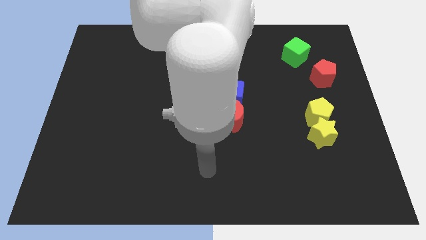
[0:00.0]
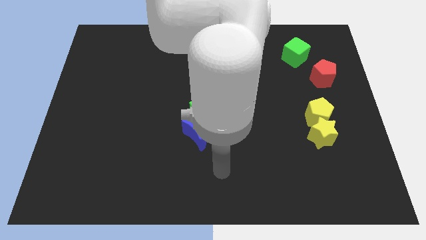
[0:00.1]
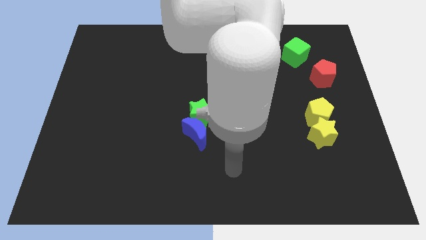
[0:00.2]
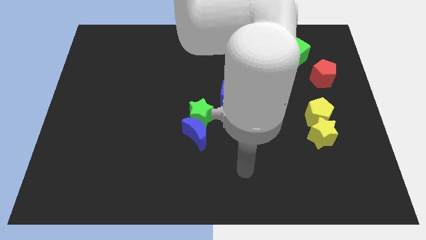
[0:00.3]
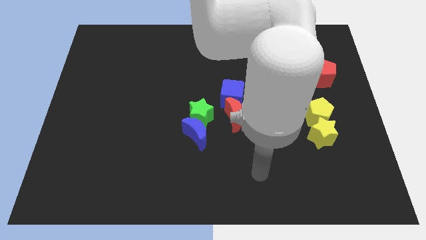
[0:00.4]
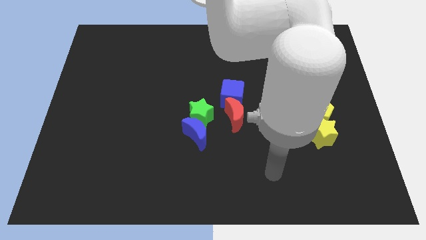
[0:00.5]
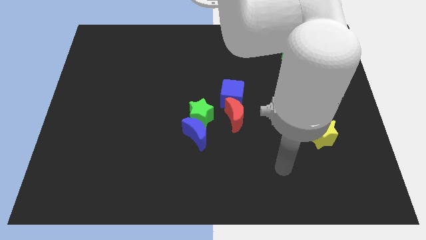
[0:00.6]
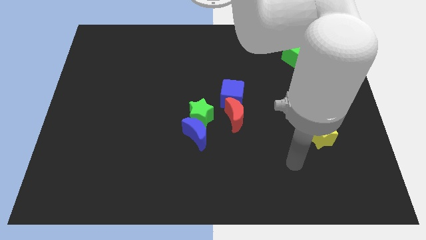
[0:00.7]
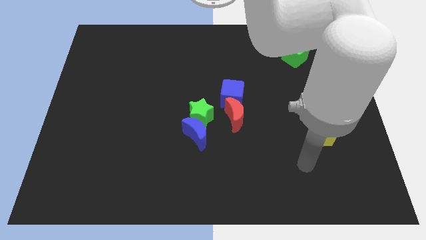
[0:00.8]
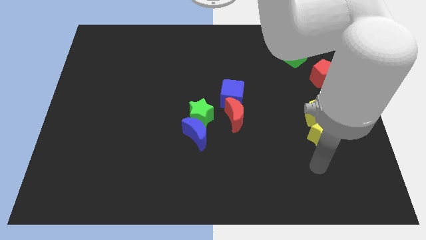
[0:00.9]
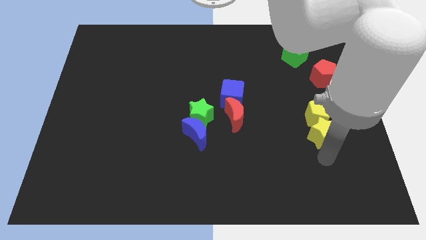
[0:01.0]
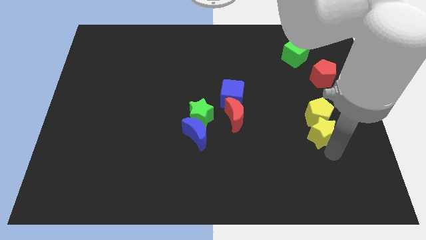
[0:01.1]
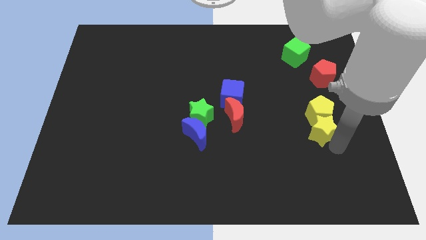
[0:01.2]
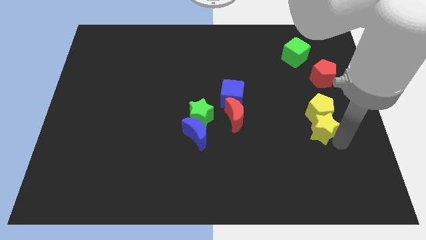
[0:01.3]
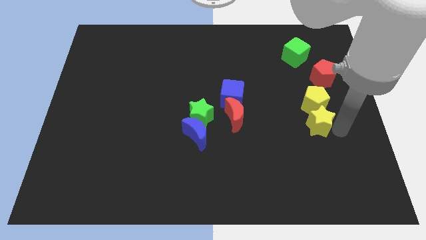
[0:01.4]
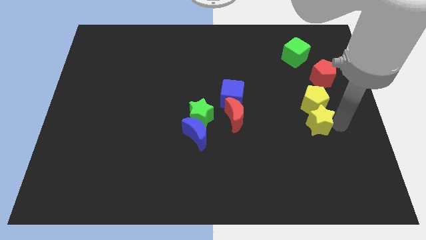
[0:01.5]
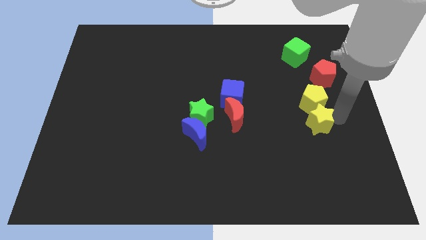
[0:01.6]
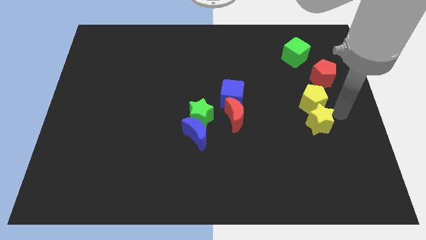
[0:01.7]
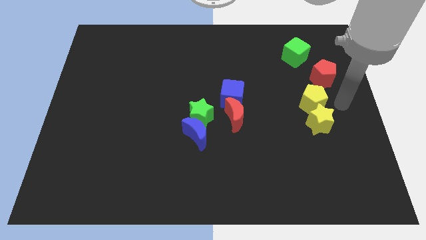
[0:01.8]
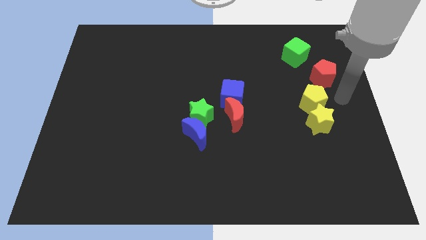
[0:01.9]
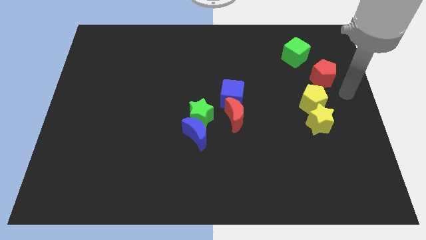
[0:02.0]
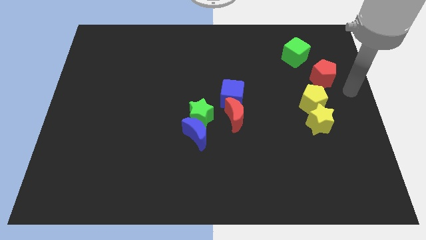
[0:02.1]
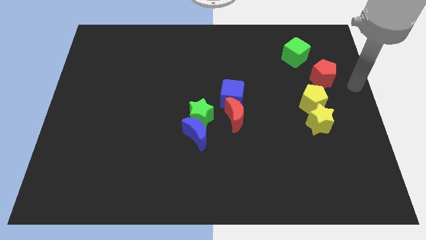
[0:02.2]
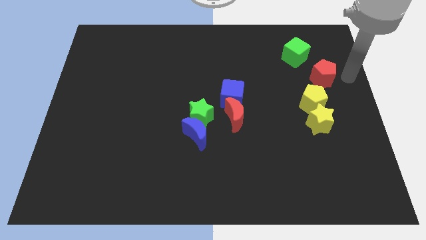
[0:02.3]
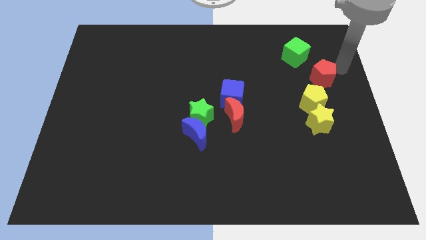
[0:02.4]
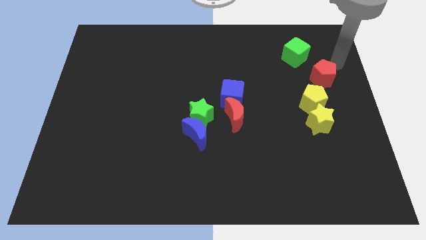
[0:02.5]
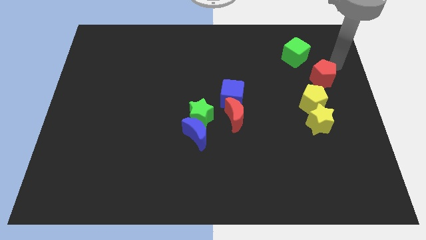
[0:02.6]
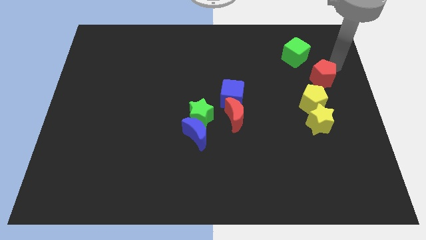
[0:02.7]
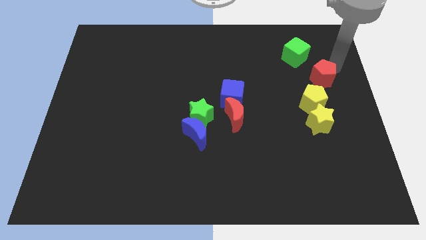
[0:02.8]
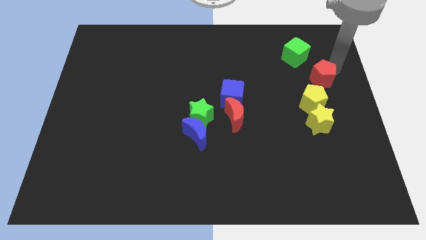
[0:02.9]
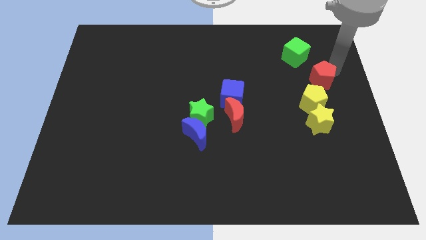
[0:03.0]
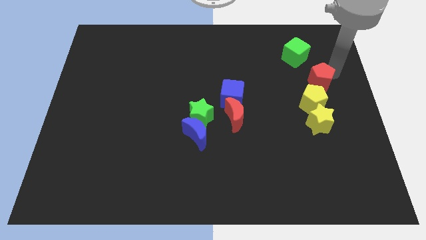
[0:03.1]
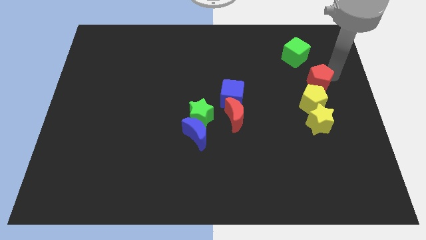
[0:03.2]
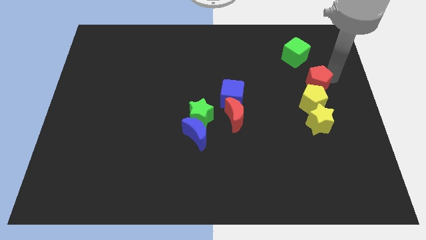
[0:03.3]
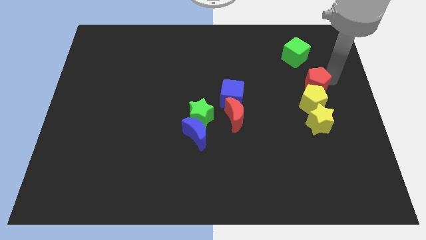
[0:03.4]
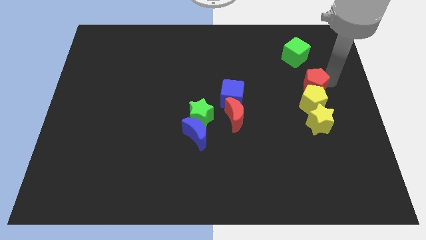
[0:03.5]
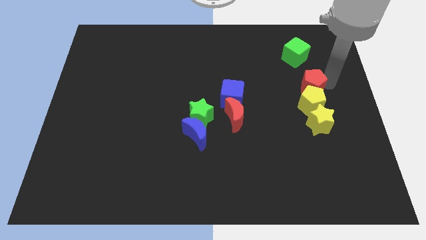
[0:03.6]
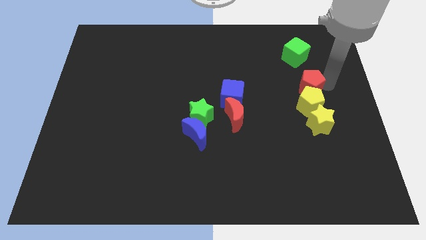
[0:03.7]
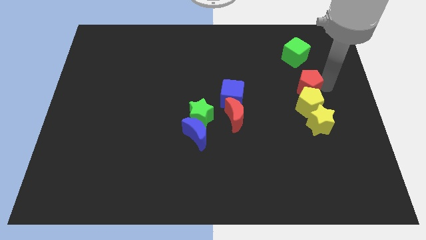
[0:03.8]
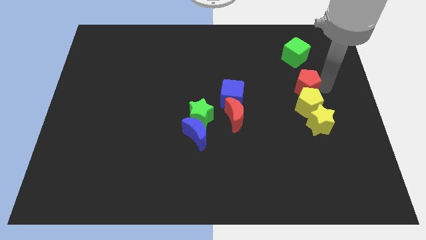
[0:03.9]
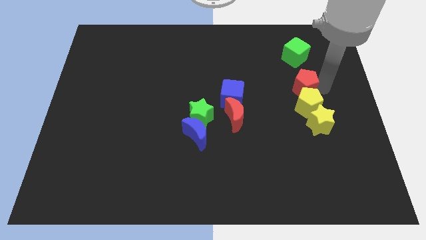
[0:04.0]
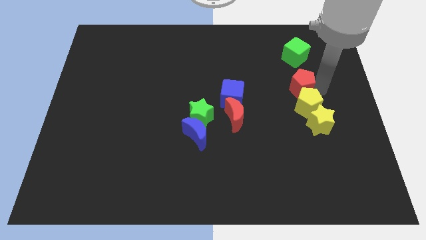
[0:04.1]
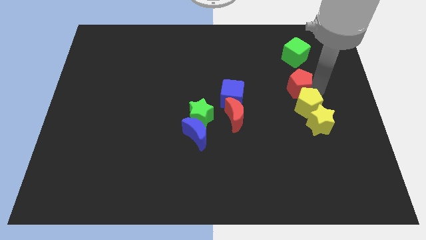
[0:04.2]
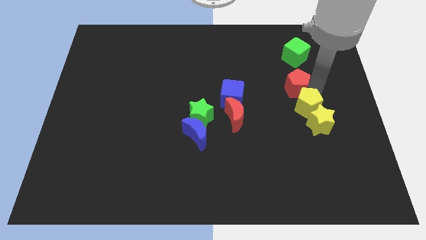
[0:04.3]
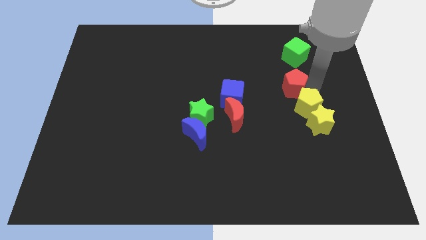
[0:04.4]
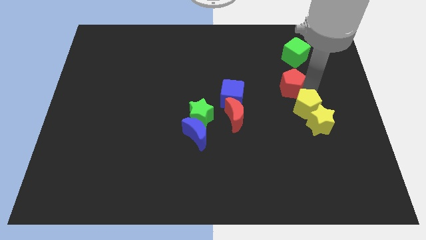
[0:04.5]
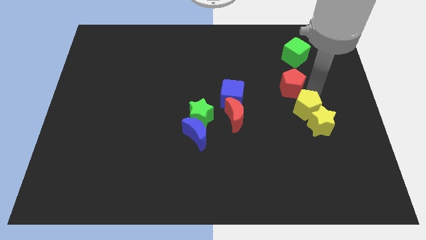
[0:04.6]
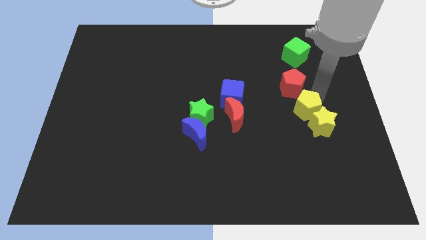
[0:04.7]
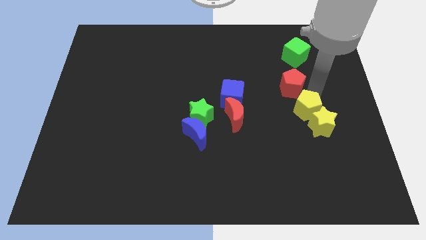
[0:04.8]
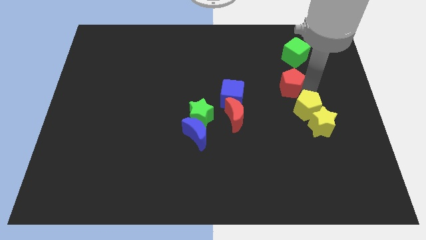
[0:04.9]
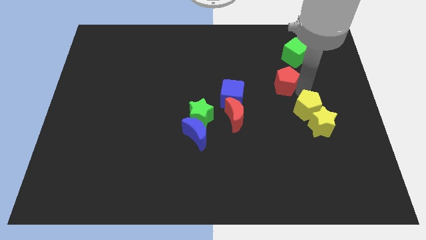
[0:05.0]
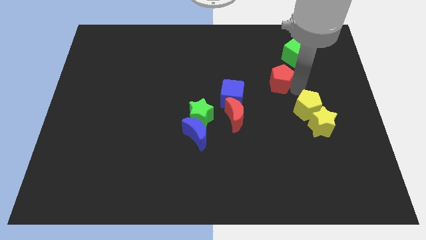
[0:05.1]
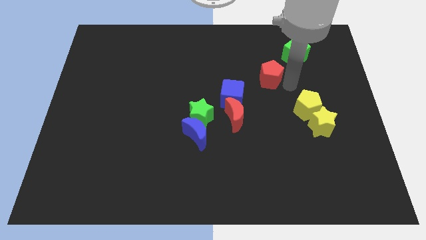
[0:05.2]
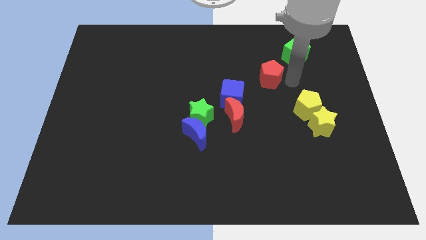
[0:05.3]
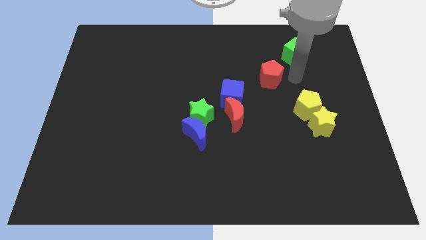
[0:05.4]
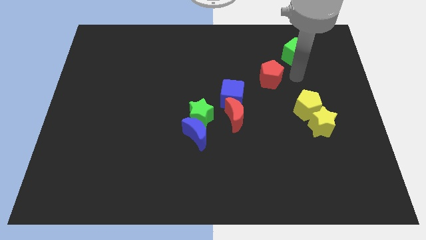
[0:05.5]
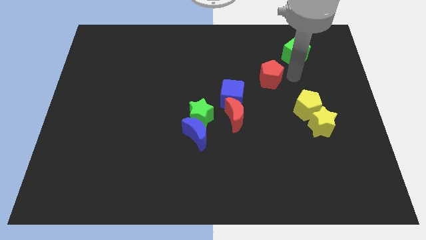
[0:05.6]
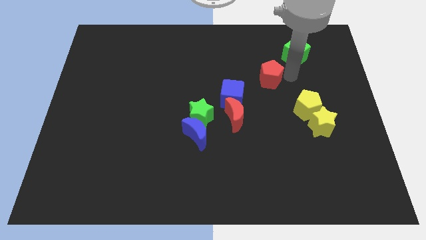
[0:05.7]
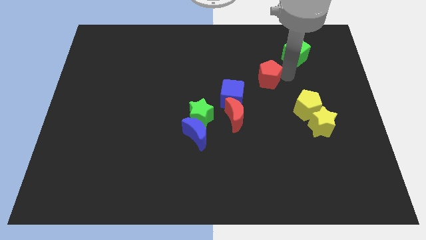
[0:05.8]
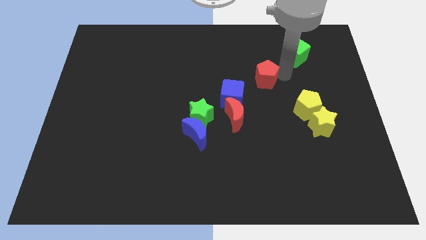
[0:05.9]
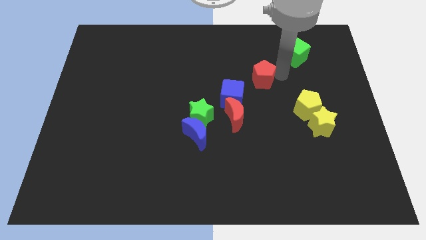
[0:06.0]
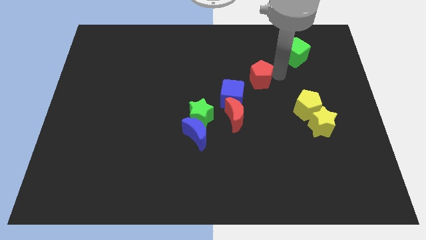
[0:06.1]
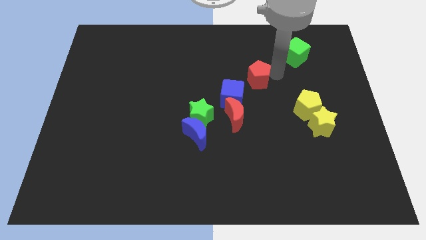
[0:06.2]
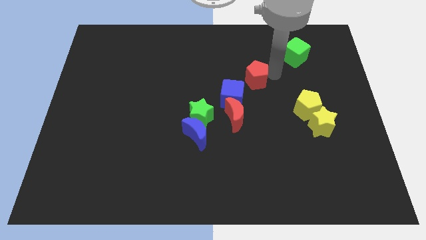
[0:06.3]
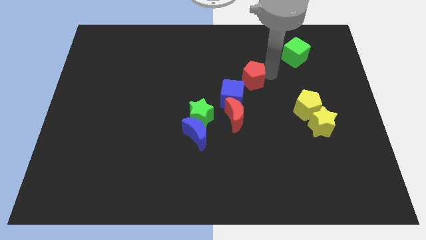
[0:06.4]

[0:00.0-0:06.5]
move the red pentagon to the middle of the board
